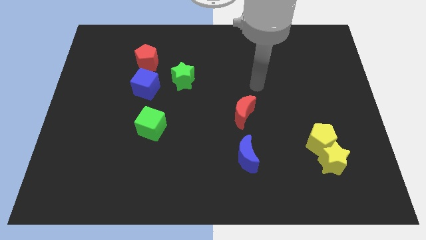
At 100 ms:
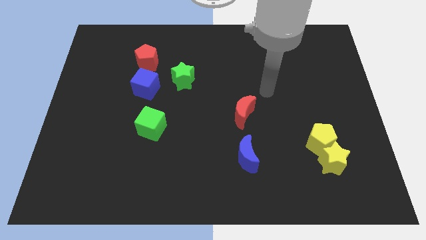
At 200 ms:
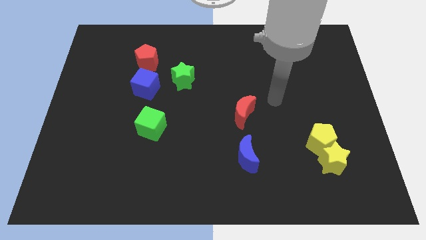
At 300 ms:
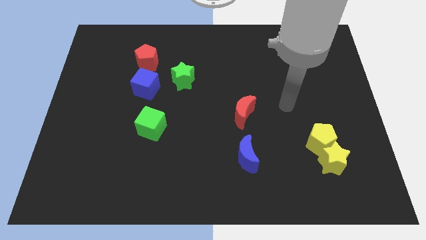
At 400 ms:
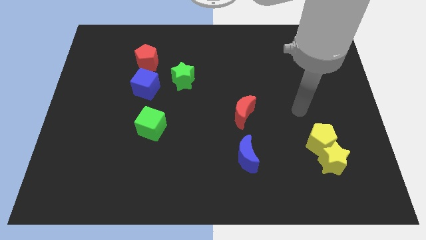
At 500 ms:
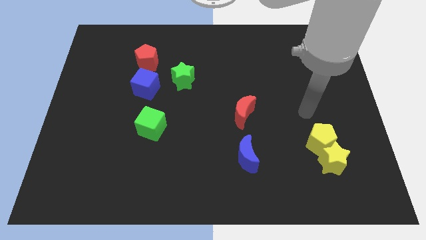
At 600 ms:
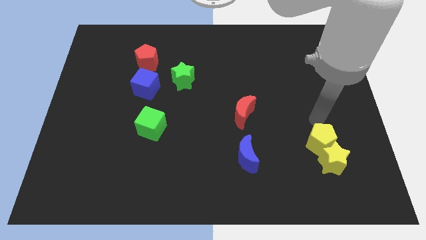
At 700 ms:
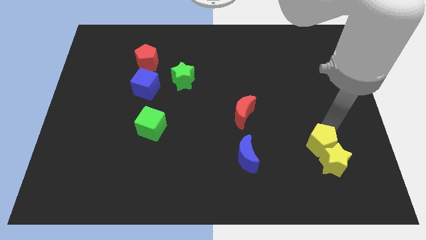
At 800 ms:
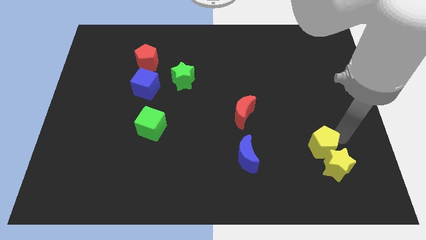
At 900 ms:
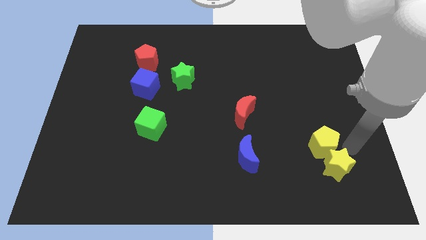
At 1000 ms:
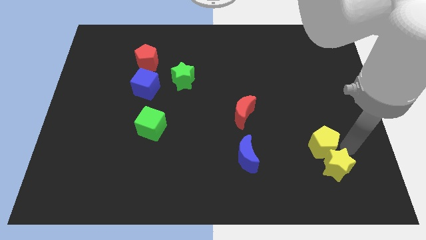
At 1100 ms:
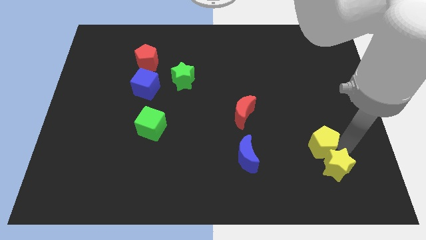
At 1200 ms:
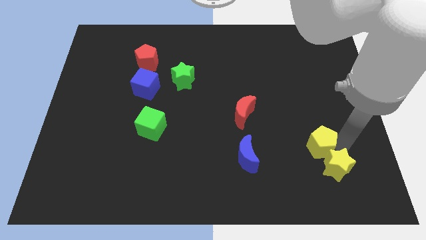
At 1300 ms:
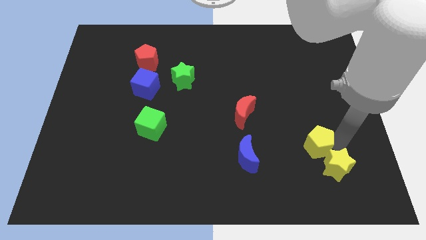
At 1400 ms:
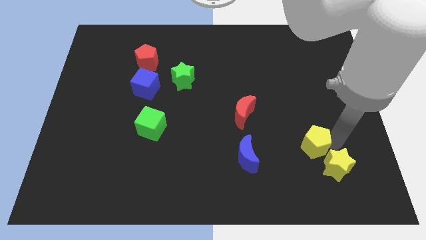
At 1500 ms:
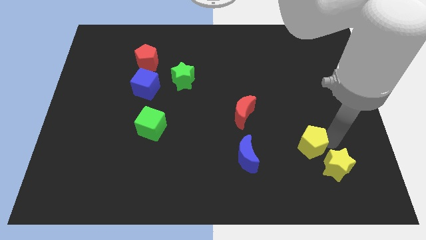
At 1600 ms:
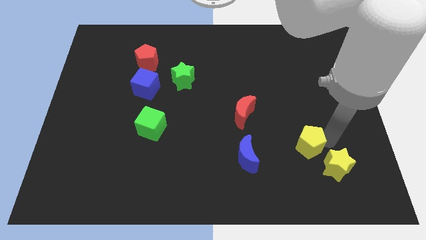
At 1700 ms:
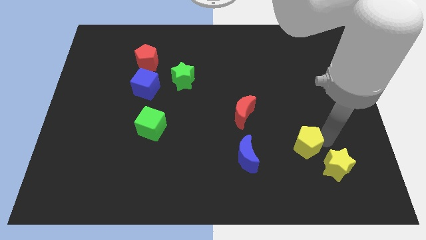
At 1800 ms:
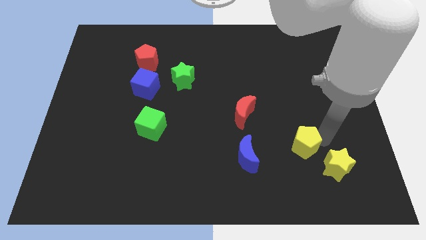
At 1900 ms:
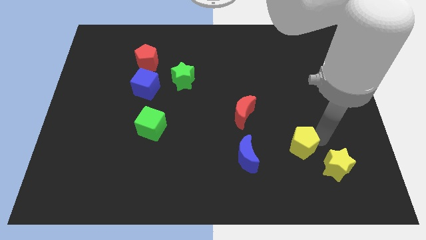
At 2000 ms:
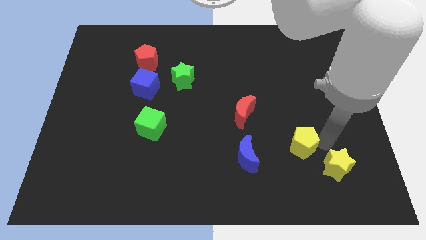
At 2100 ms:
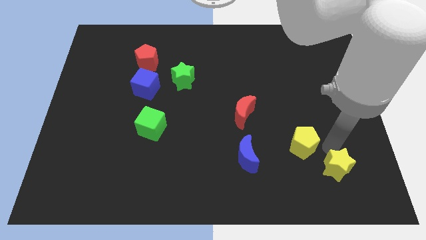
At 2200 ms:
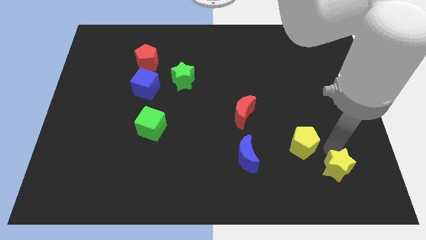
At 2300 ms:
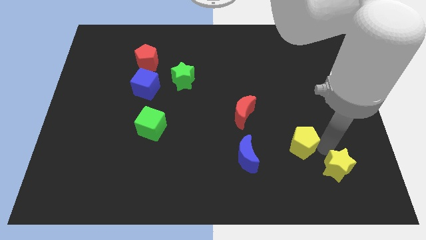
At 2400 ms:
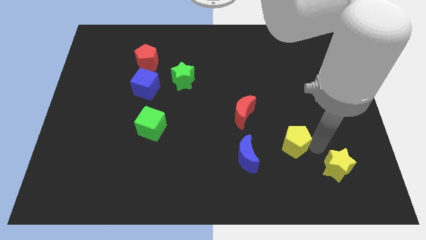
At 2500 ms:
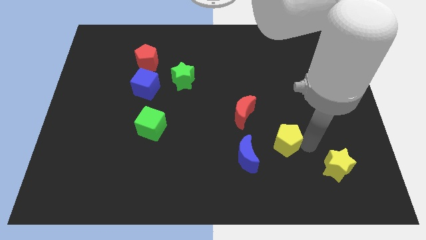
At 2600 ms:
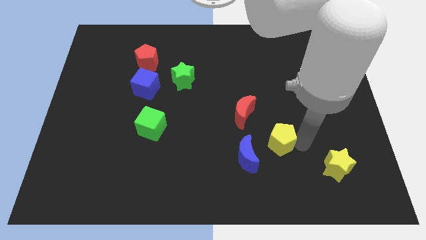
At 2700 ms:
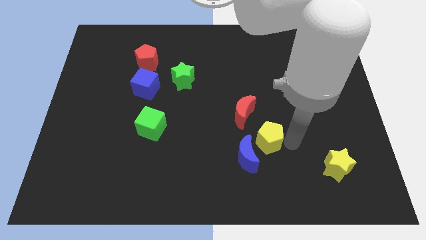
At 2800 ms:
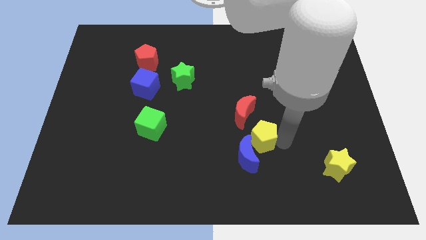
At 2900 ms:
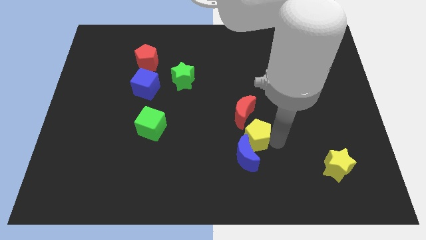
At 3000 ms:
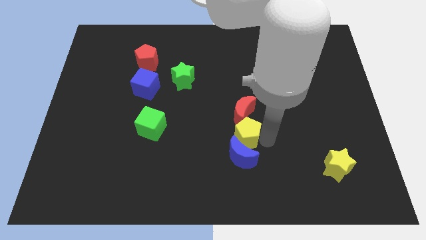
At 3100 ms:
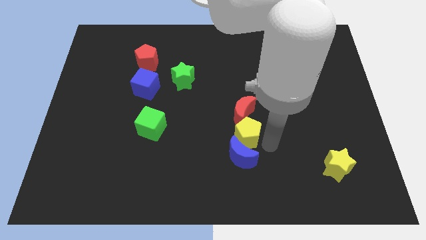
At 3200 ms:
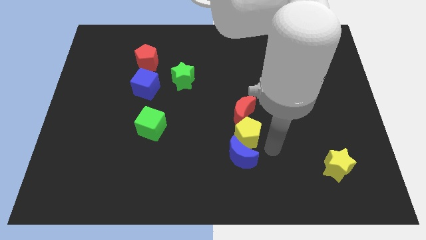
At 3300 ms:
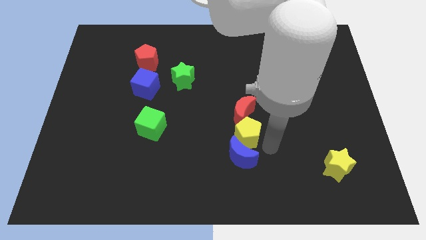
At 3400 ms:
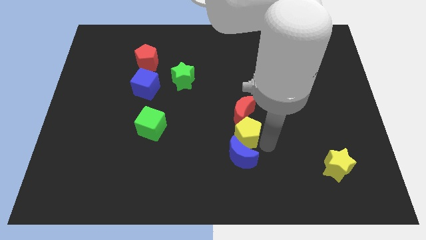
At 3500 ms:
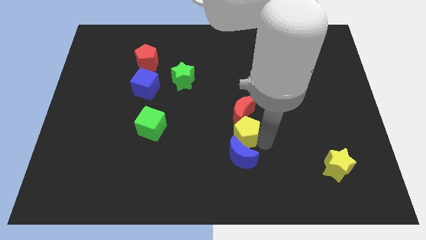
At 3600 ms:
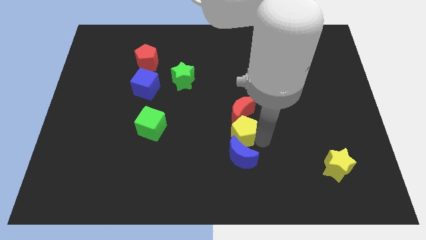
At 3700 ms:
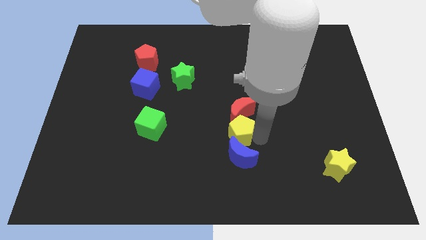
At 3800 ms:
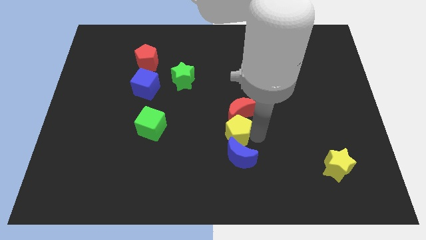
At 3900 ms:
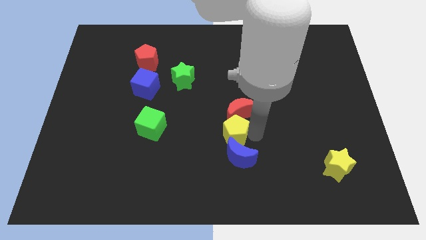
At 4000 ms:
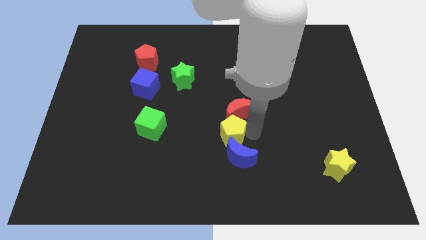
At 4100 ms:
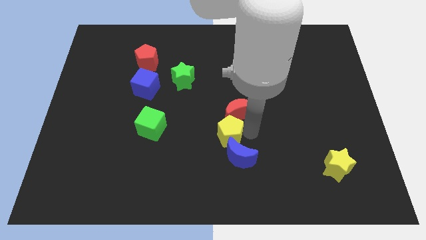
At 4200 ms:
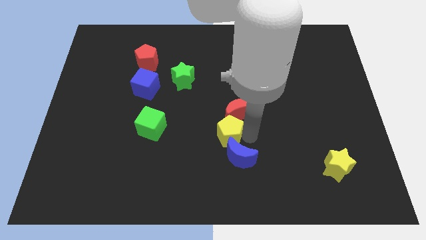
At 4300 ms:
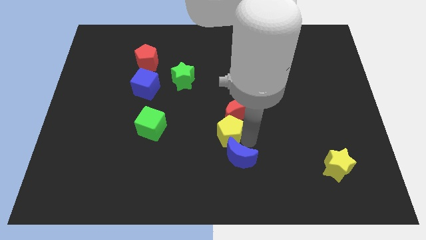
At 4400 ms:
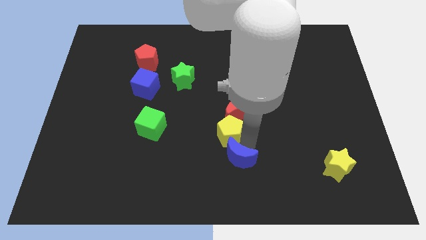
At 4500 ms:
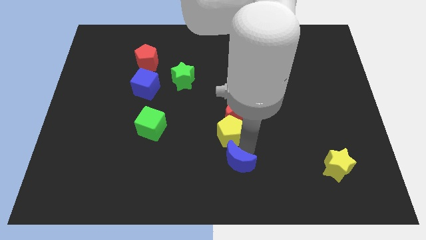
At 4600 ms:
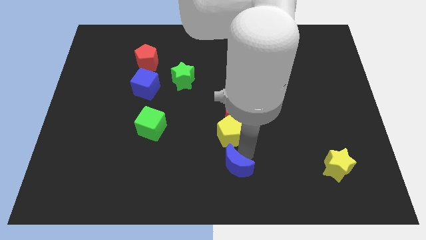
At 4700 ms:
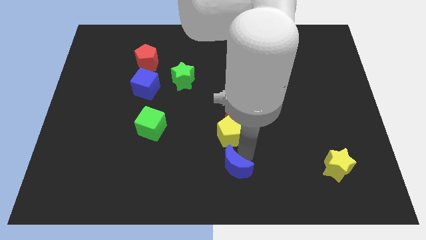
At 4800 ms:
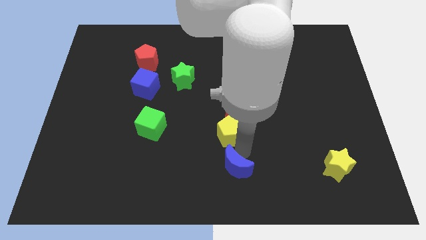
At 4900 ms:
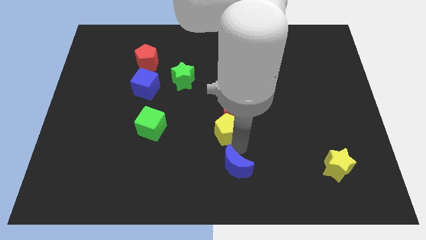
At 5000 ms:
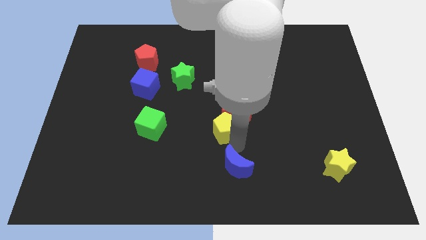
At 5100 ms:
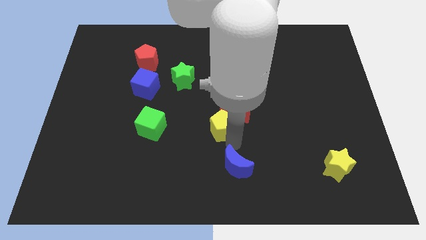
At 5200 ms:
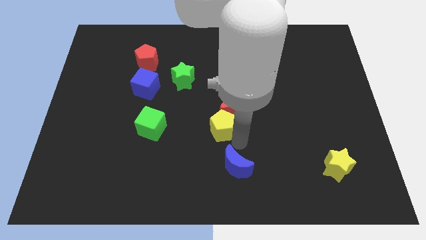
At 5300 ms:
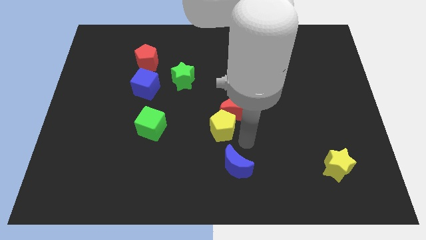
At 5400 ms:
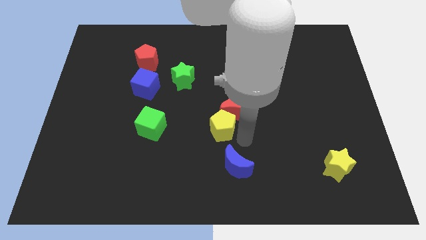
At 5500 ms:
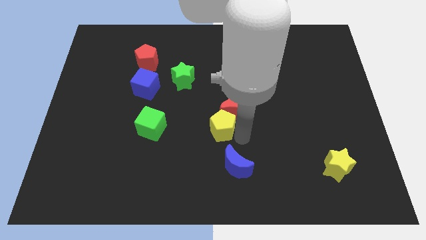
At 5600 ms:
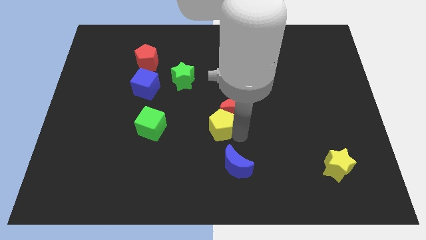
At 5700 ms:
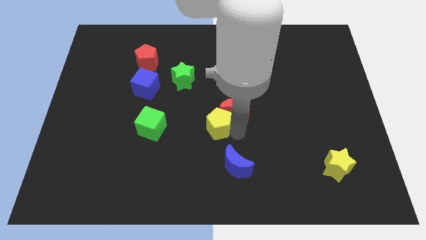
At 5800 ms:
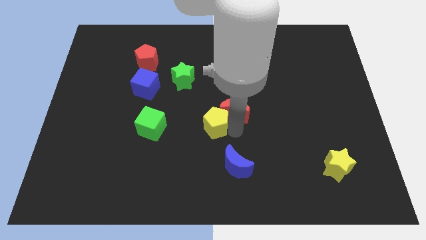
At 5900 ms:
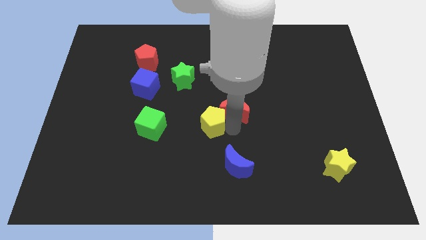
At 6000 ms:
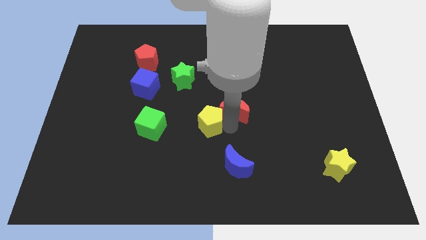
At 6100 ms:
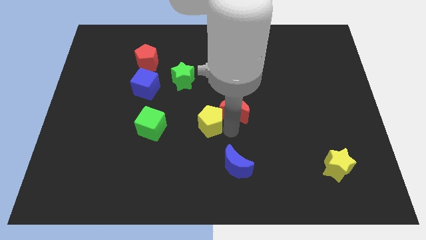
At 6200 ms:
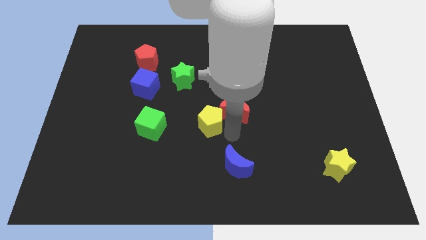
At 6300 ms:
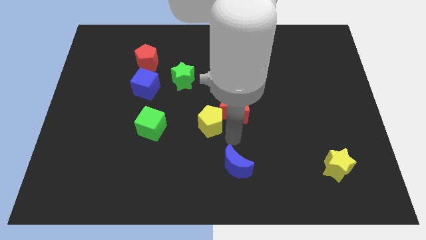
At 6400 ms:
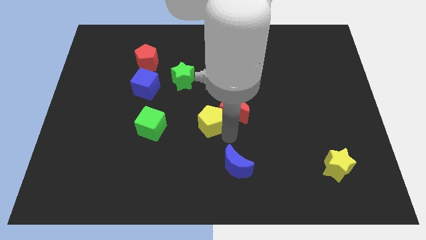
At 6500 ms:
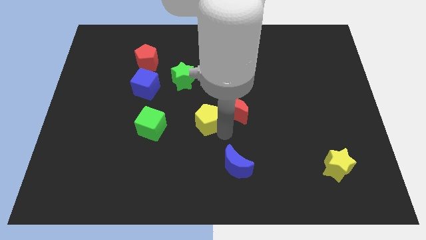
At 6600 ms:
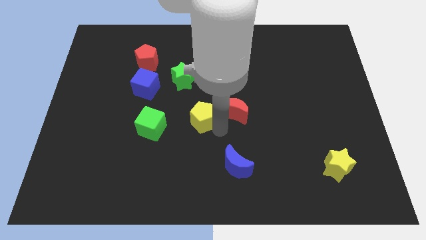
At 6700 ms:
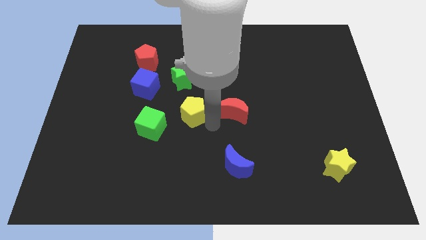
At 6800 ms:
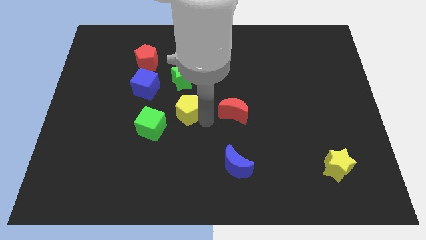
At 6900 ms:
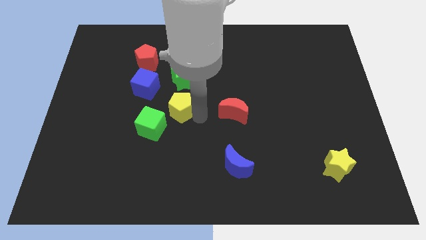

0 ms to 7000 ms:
slide the yellow pentagon to the bottom right of the blue cube
